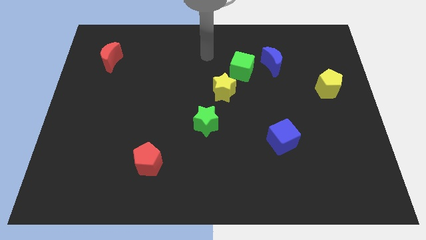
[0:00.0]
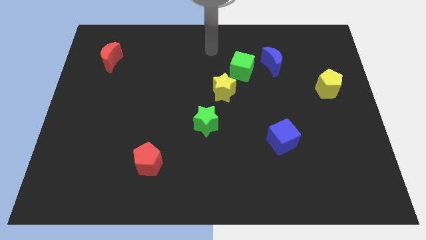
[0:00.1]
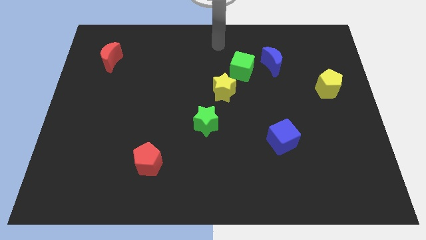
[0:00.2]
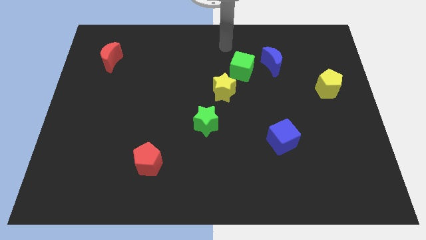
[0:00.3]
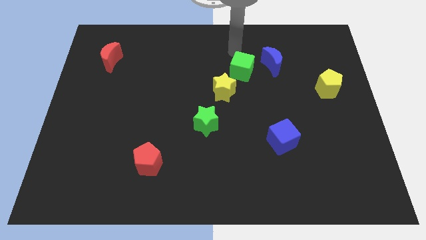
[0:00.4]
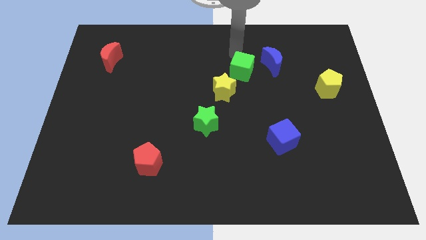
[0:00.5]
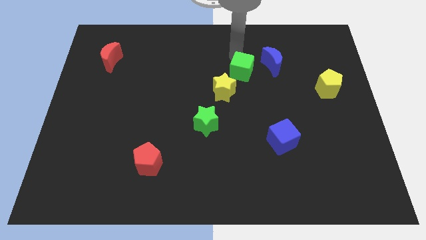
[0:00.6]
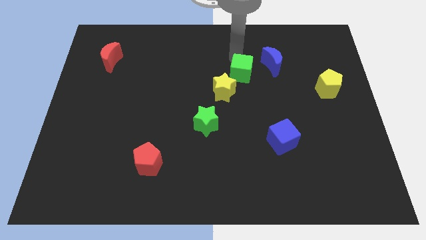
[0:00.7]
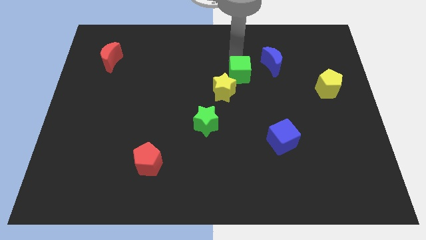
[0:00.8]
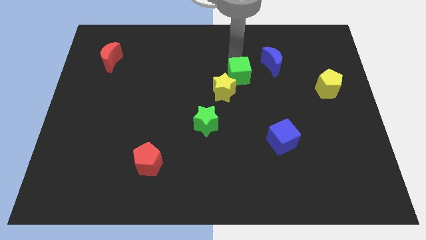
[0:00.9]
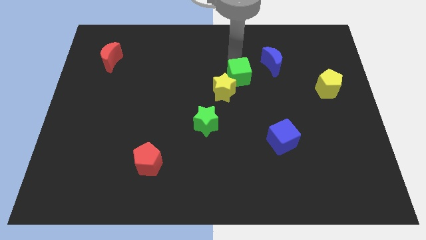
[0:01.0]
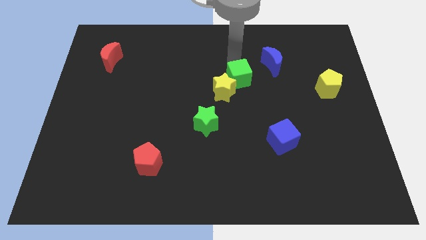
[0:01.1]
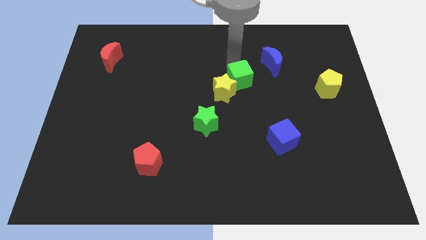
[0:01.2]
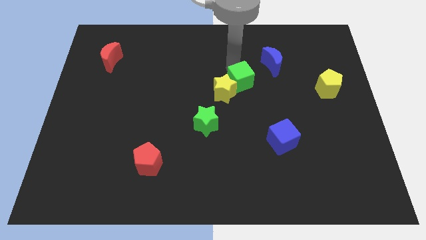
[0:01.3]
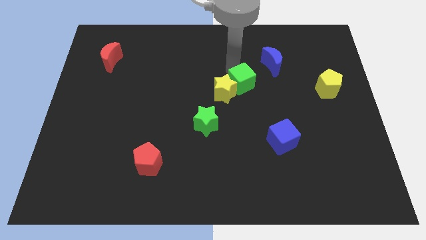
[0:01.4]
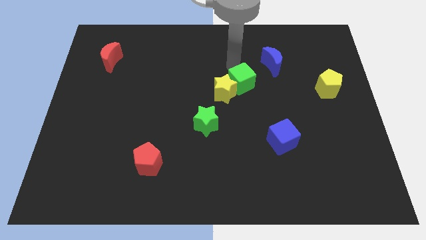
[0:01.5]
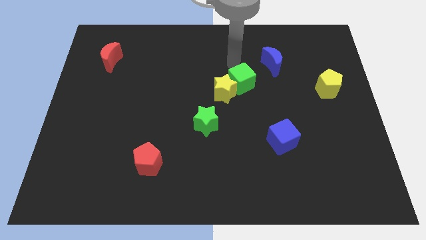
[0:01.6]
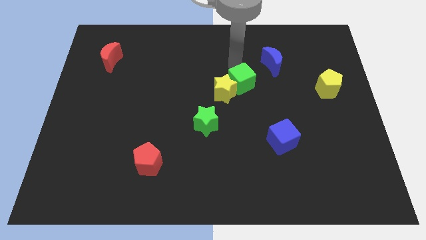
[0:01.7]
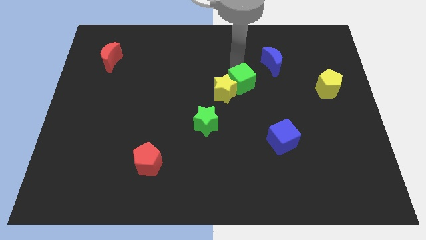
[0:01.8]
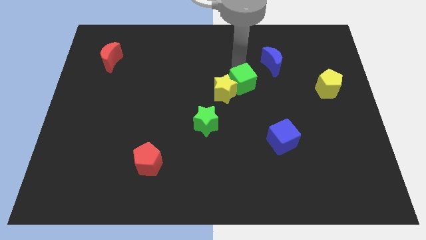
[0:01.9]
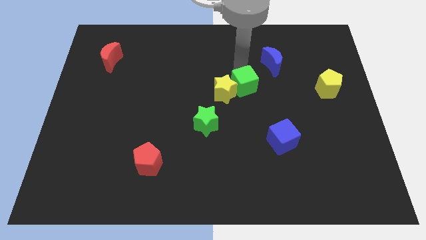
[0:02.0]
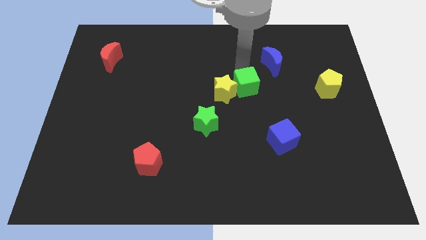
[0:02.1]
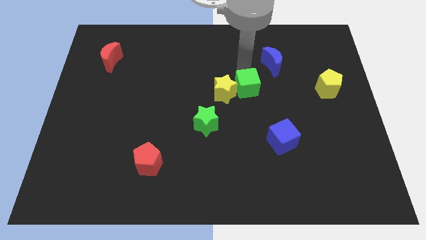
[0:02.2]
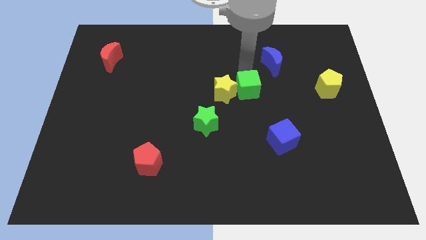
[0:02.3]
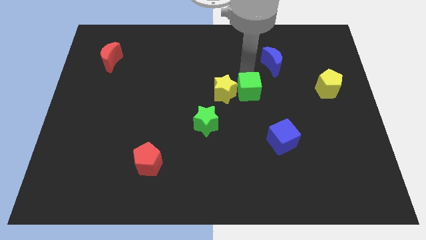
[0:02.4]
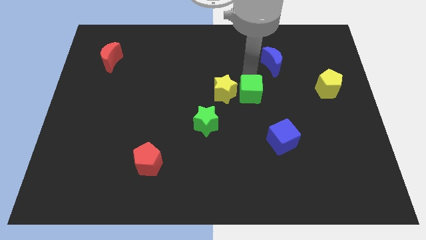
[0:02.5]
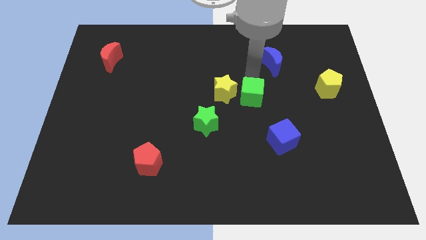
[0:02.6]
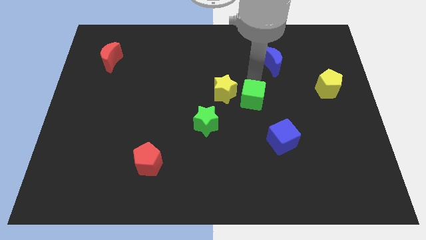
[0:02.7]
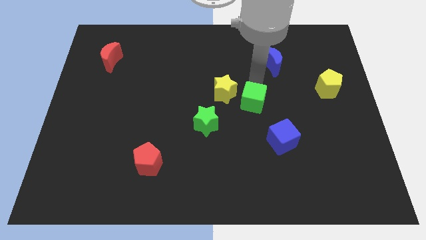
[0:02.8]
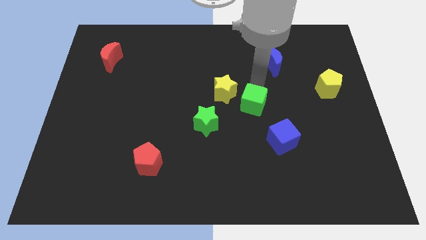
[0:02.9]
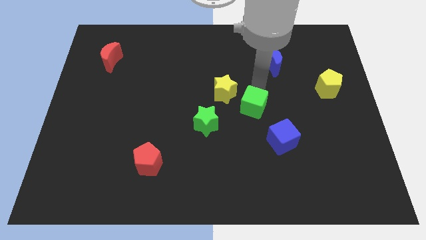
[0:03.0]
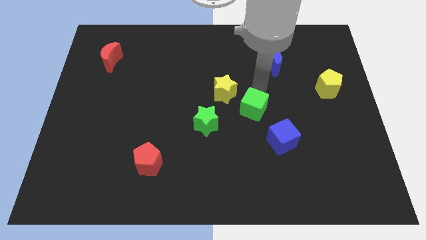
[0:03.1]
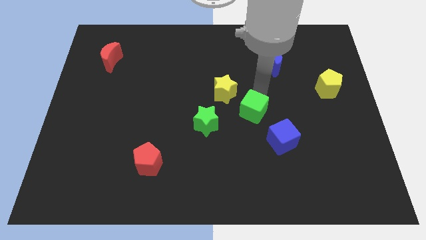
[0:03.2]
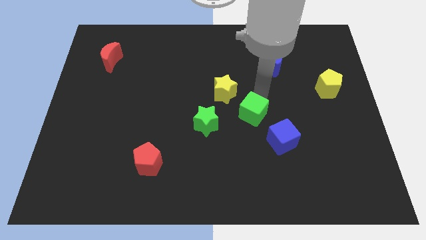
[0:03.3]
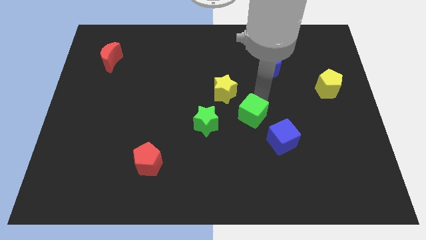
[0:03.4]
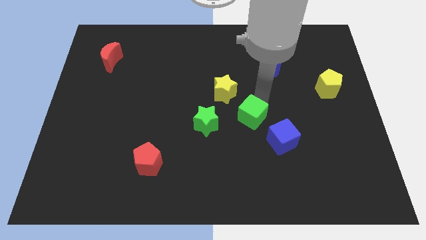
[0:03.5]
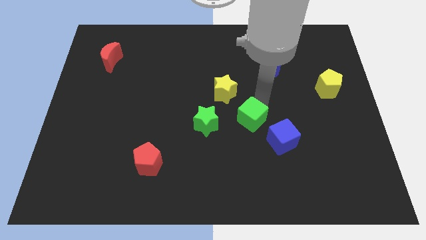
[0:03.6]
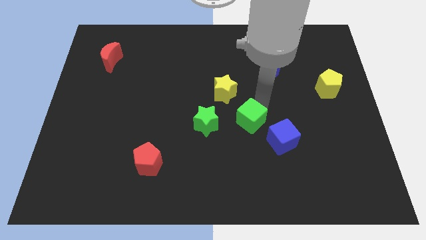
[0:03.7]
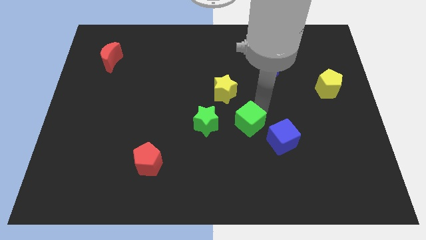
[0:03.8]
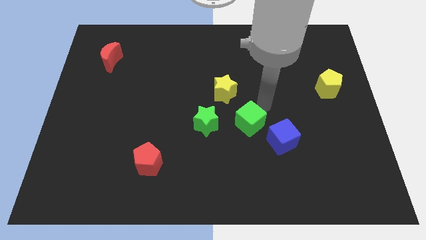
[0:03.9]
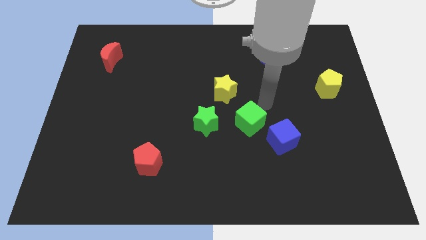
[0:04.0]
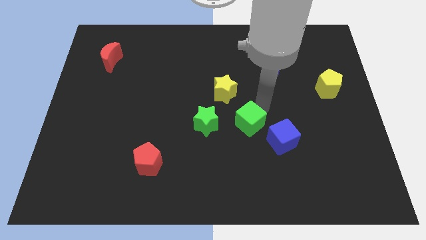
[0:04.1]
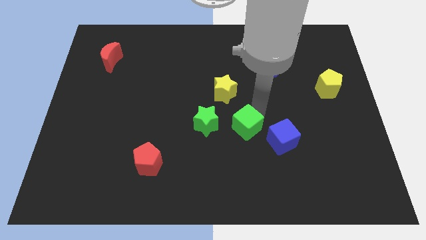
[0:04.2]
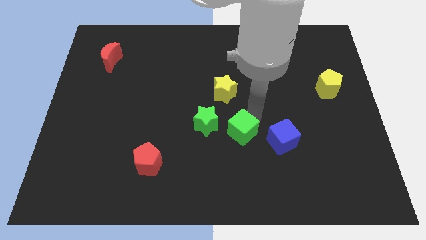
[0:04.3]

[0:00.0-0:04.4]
move the green cube to the bottom right side of the green star

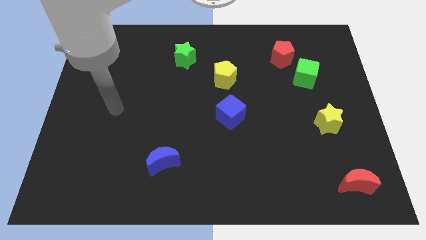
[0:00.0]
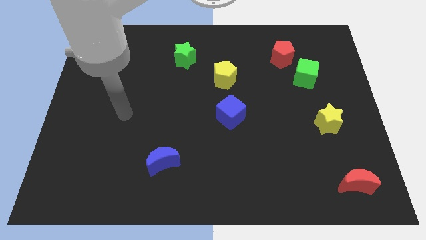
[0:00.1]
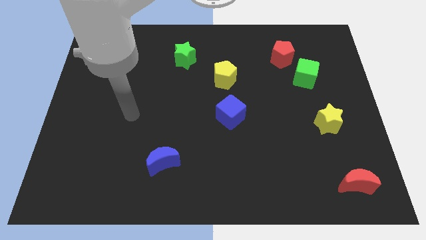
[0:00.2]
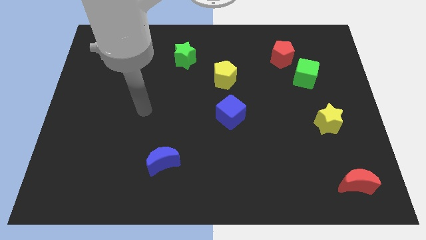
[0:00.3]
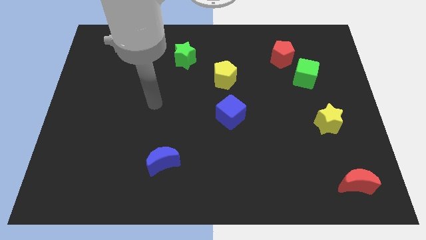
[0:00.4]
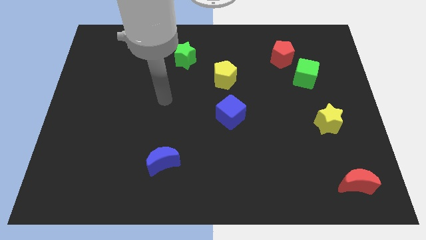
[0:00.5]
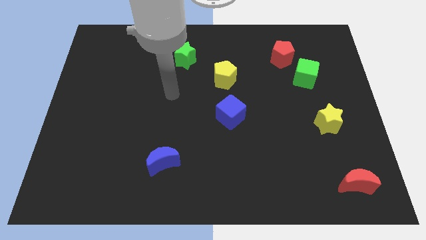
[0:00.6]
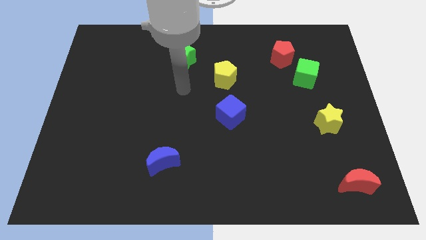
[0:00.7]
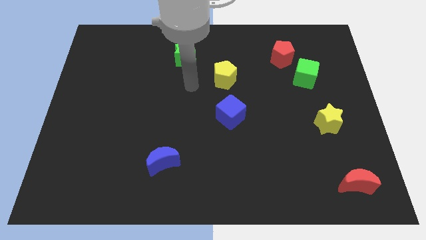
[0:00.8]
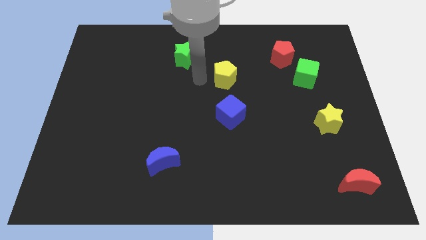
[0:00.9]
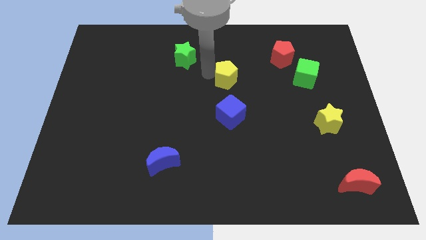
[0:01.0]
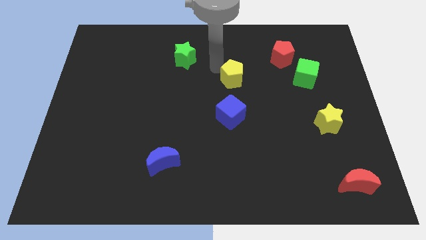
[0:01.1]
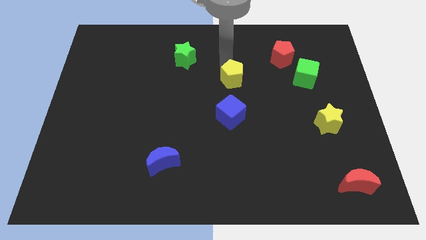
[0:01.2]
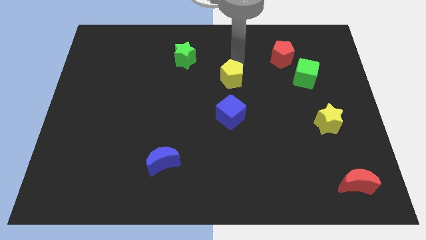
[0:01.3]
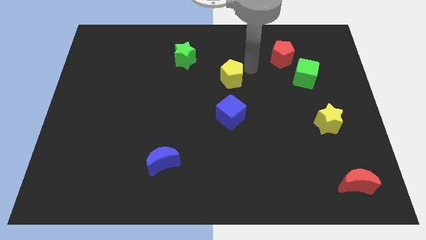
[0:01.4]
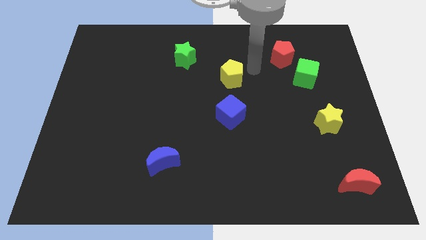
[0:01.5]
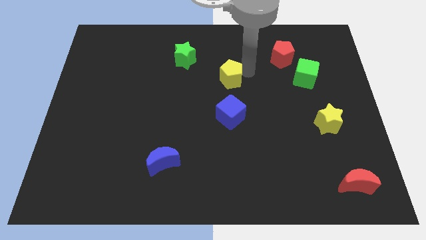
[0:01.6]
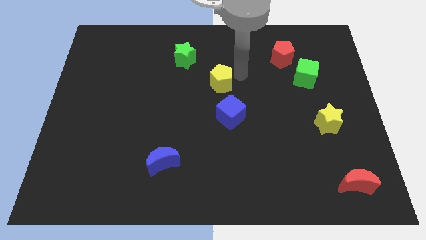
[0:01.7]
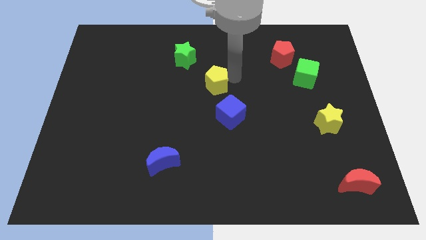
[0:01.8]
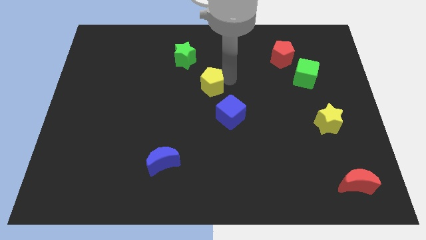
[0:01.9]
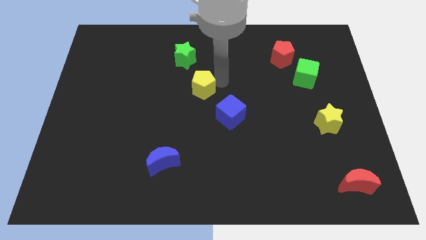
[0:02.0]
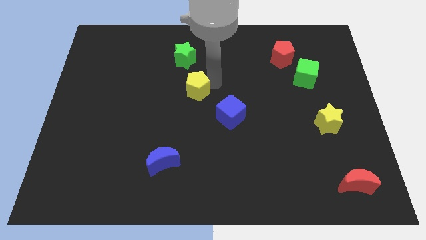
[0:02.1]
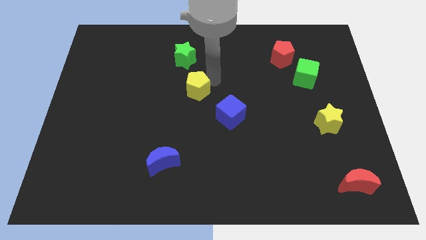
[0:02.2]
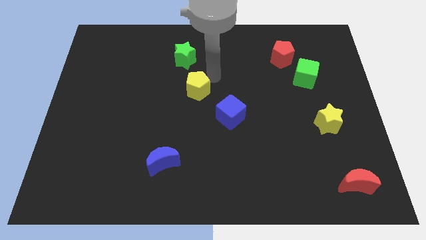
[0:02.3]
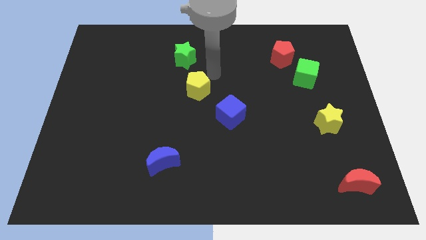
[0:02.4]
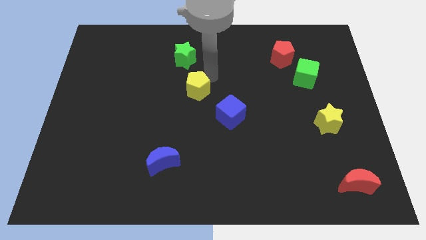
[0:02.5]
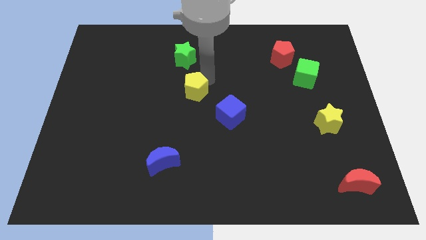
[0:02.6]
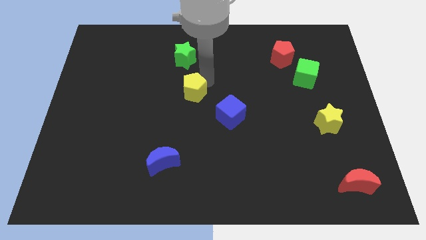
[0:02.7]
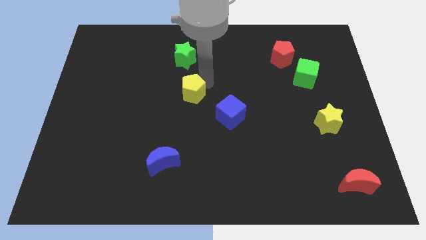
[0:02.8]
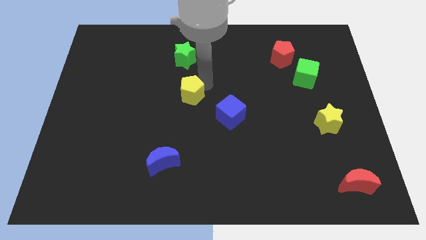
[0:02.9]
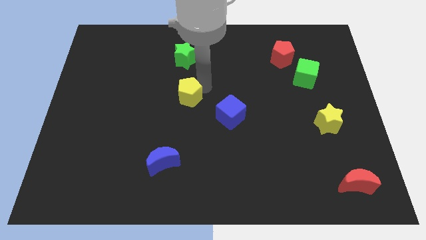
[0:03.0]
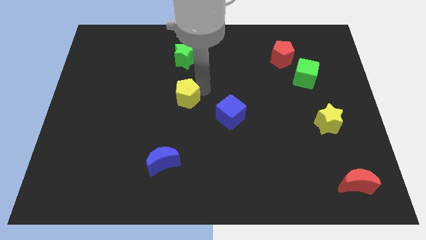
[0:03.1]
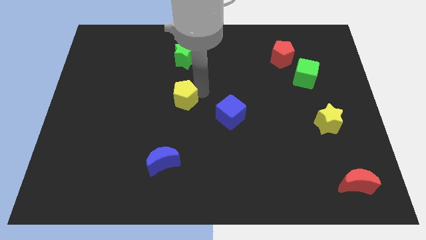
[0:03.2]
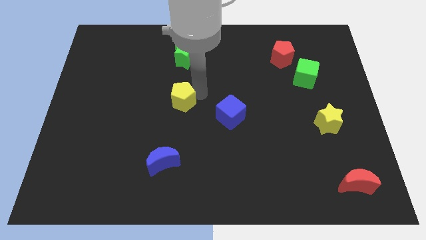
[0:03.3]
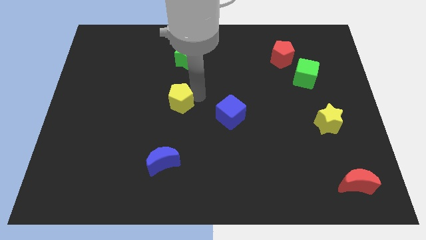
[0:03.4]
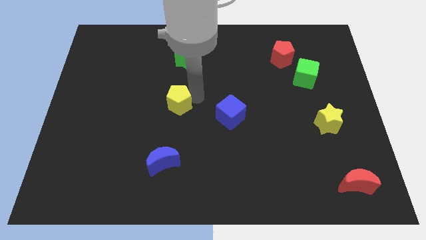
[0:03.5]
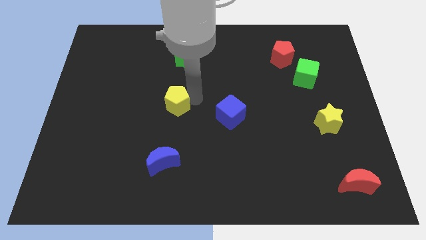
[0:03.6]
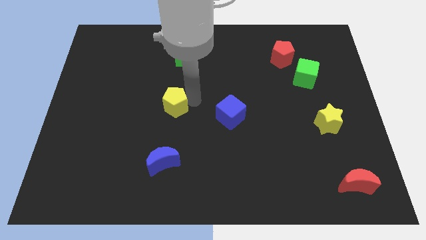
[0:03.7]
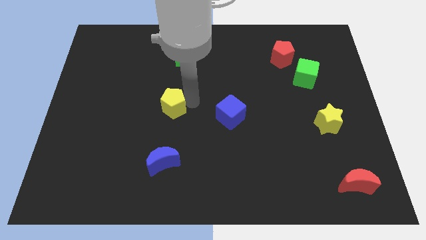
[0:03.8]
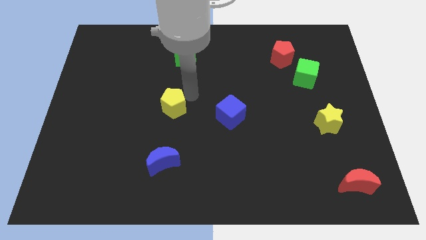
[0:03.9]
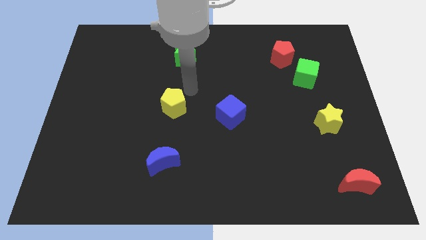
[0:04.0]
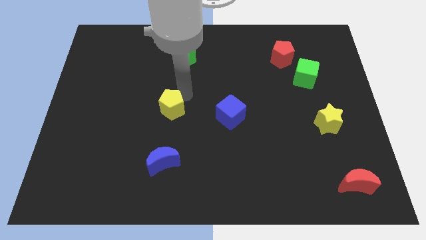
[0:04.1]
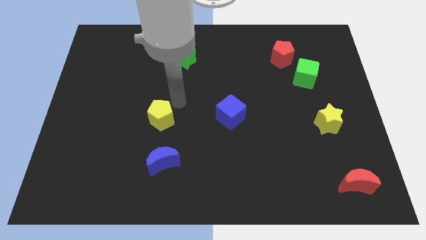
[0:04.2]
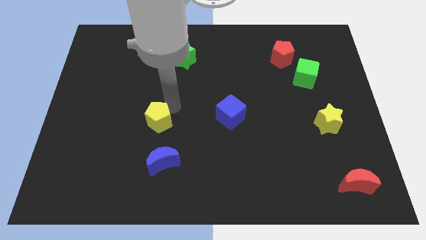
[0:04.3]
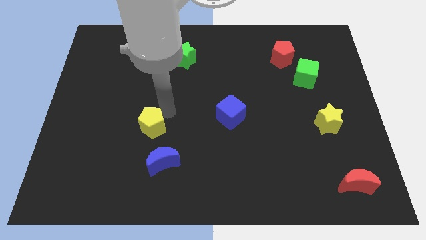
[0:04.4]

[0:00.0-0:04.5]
move the yellow pentagon diagonally up and to the left of the blue moon
